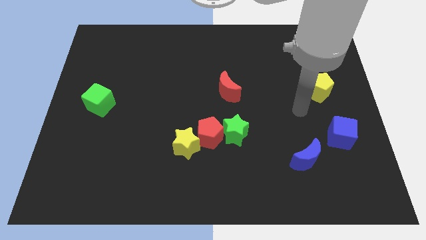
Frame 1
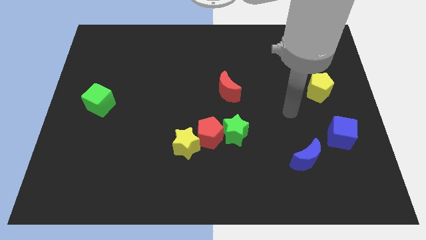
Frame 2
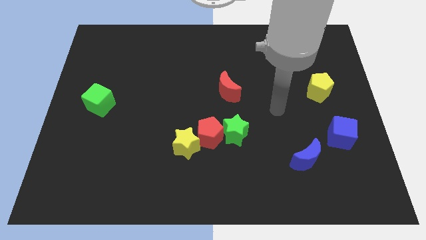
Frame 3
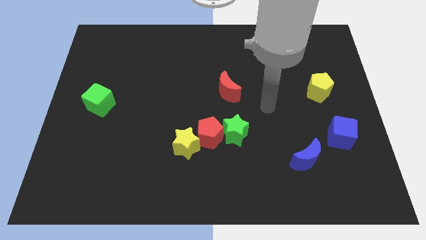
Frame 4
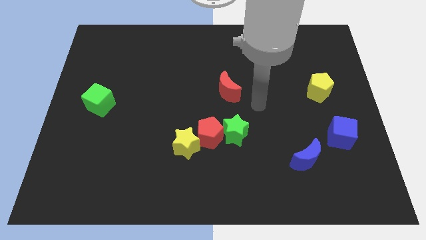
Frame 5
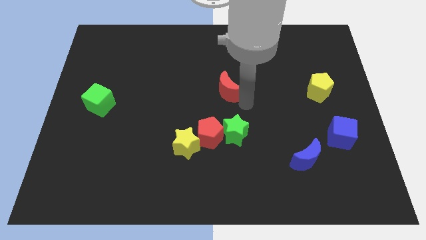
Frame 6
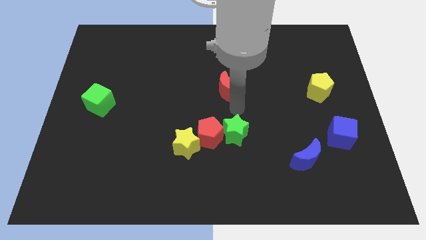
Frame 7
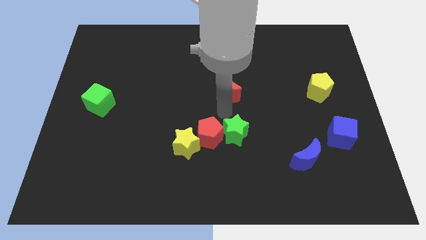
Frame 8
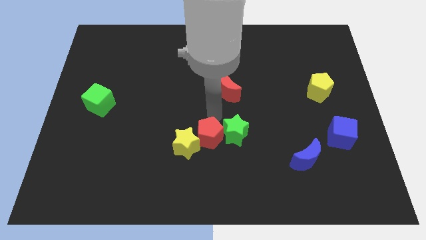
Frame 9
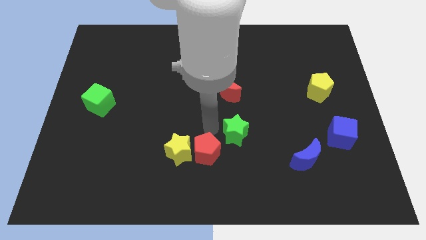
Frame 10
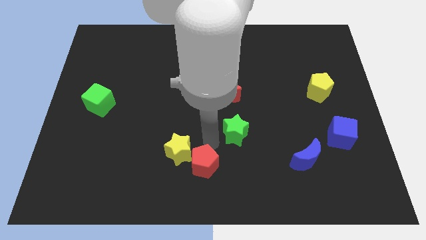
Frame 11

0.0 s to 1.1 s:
move the green star away from the red pentagon

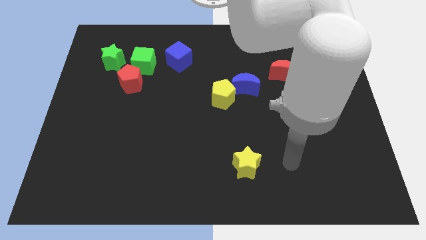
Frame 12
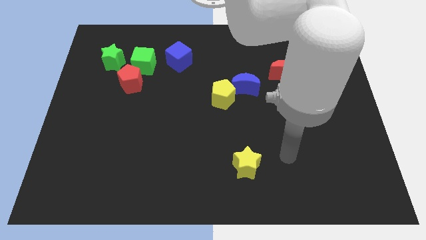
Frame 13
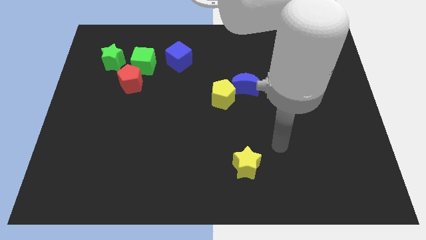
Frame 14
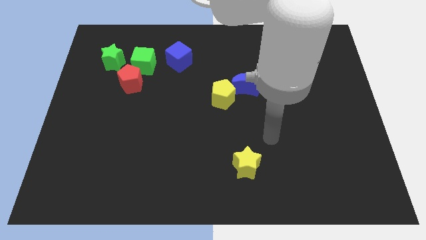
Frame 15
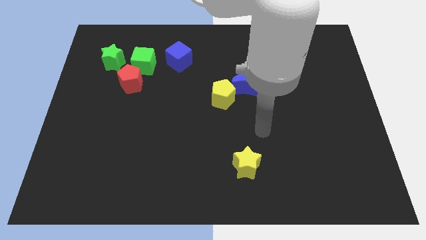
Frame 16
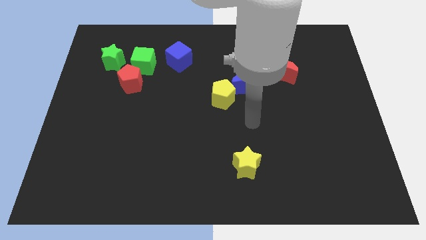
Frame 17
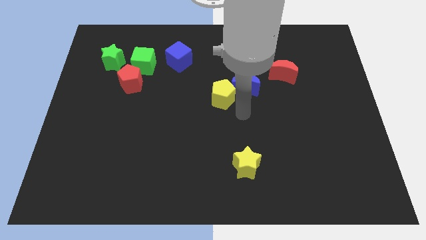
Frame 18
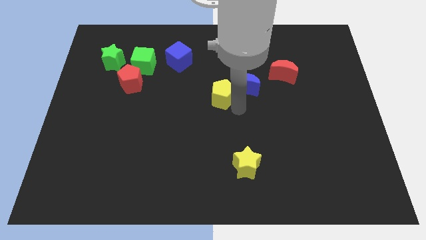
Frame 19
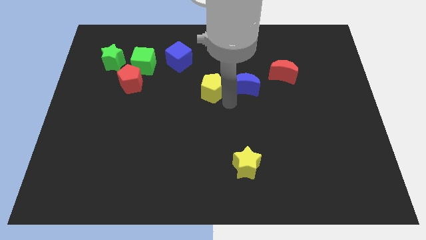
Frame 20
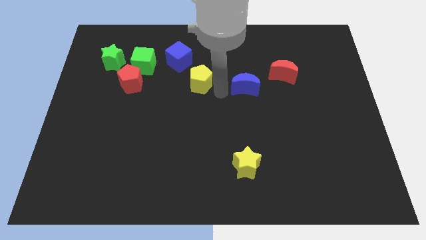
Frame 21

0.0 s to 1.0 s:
separate the blue moon from the yellow pentagon

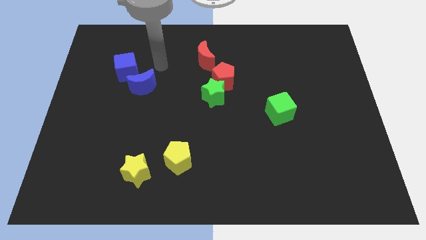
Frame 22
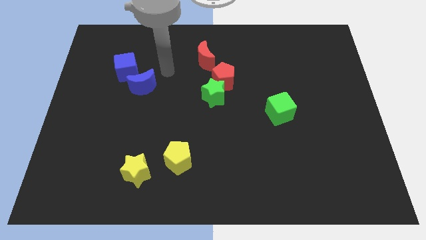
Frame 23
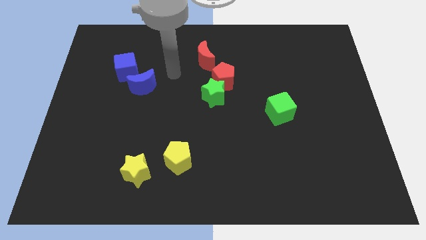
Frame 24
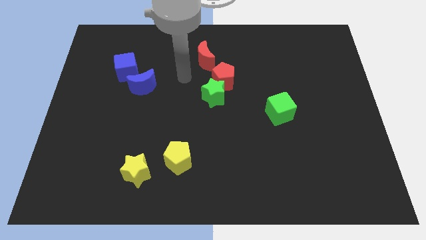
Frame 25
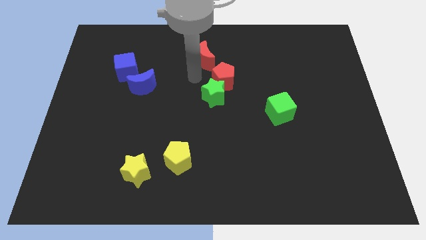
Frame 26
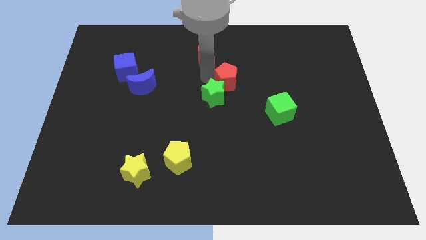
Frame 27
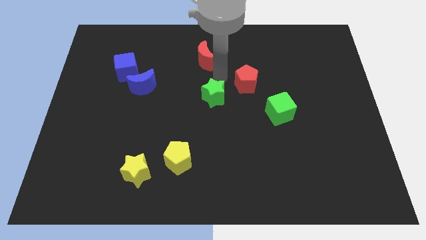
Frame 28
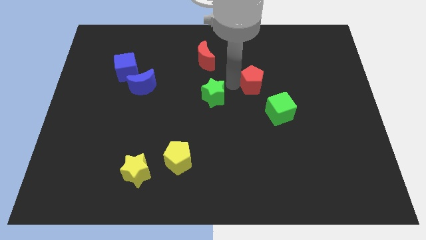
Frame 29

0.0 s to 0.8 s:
pull the green star apart from the red pentagon

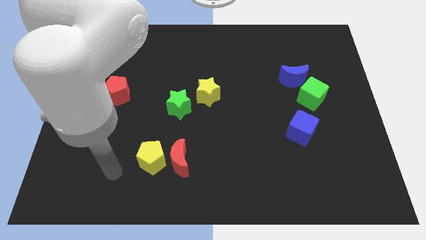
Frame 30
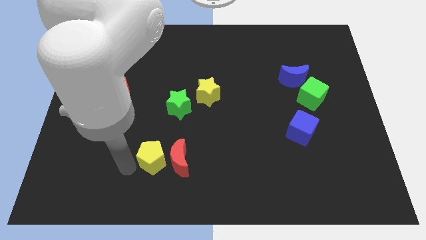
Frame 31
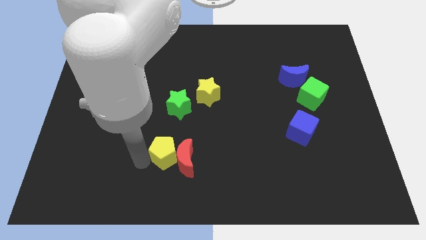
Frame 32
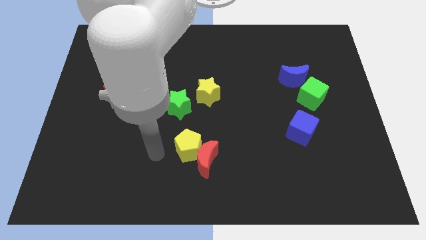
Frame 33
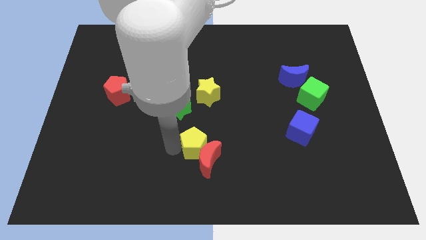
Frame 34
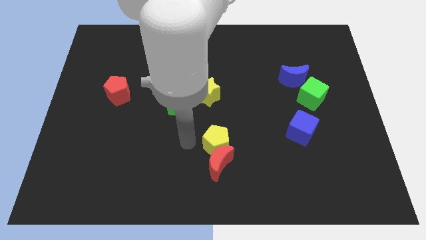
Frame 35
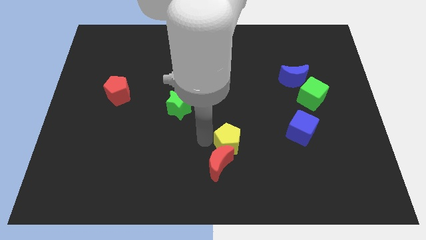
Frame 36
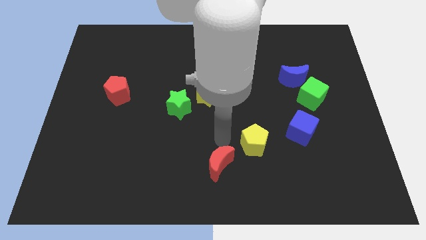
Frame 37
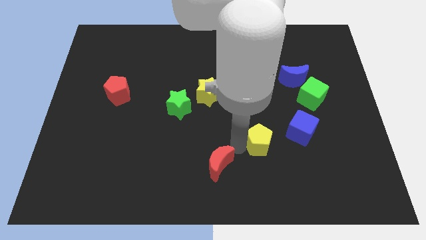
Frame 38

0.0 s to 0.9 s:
move the red moon away from the yellow pentagon

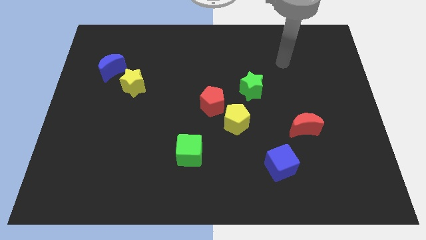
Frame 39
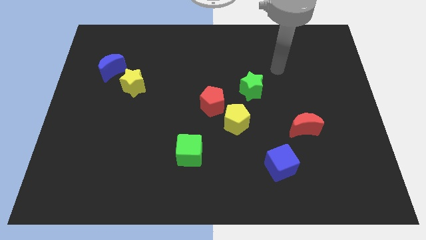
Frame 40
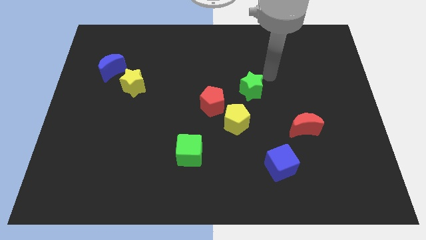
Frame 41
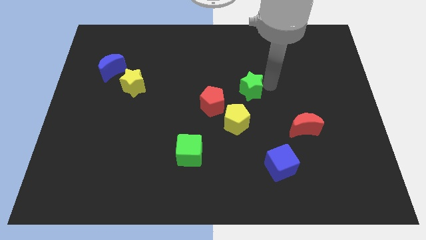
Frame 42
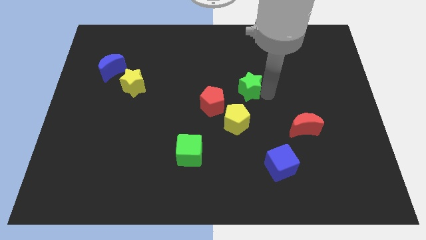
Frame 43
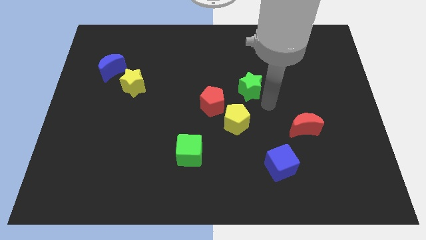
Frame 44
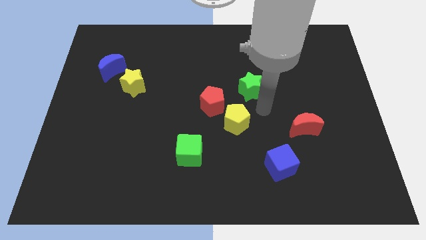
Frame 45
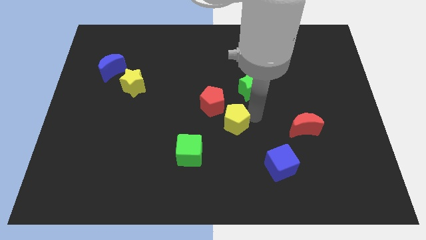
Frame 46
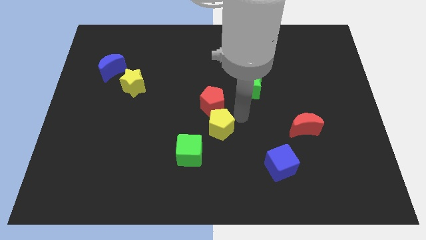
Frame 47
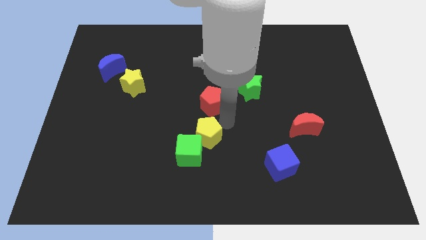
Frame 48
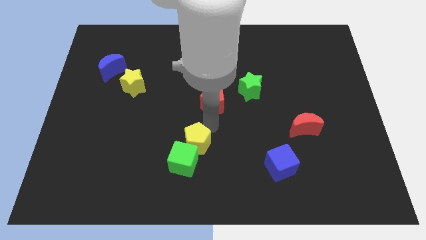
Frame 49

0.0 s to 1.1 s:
separate the red pentagon from the yellow pentagon

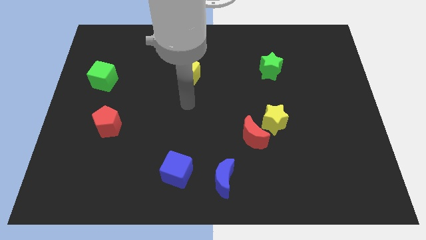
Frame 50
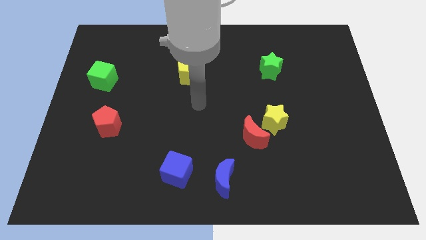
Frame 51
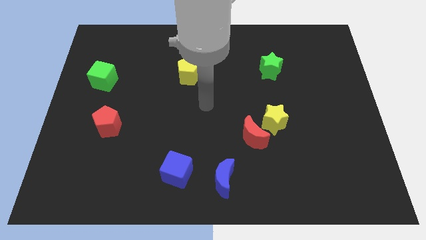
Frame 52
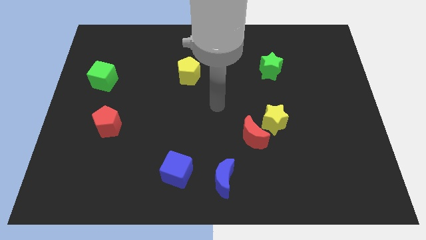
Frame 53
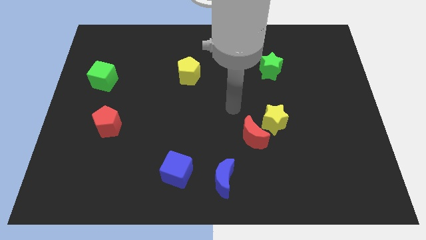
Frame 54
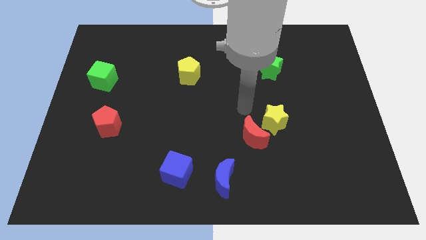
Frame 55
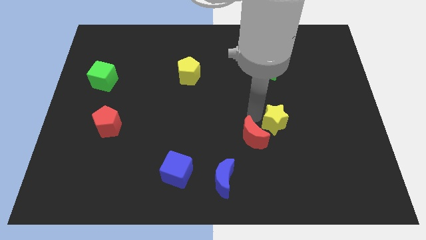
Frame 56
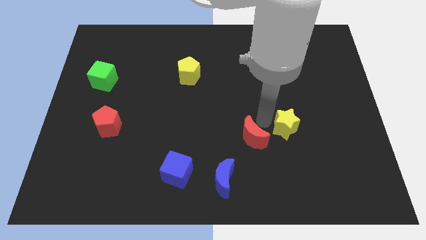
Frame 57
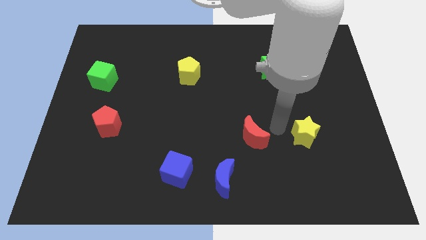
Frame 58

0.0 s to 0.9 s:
separate the red moon from the yellow star

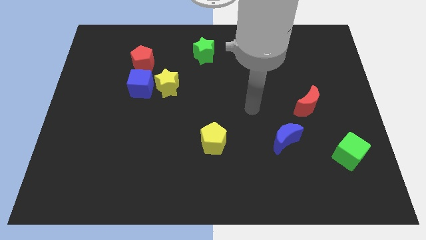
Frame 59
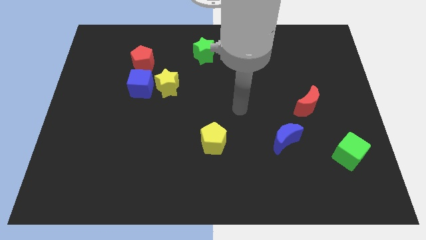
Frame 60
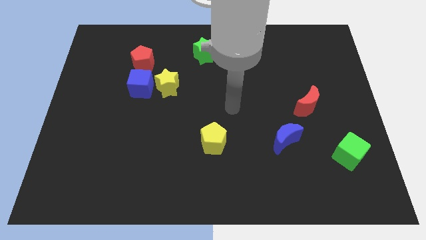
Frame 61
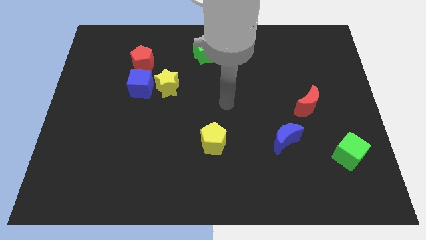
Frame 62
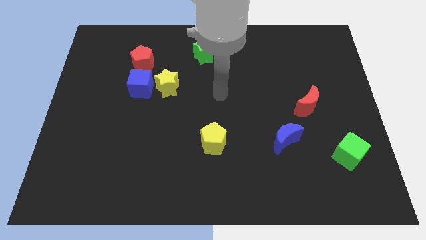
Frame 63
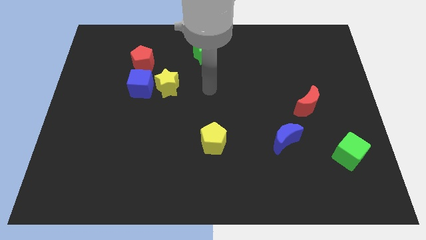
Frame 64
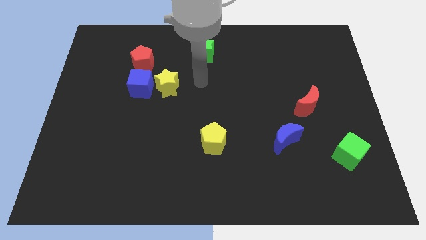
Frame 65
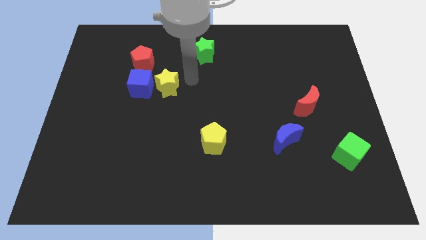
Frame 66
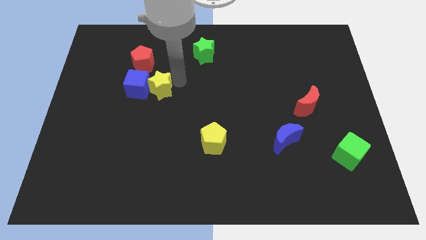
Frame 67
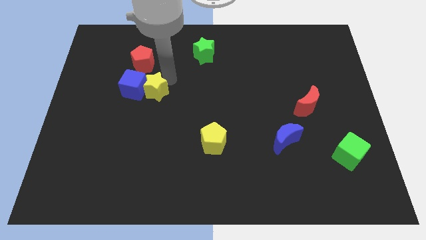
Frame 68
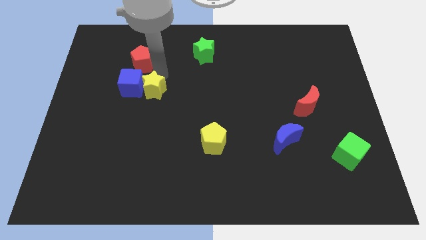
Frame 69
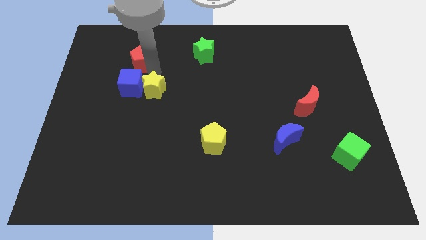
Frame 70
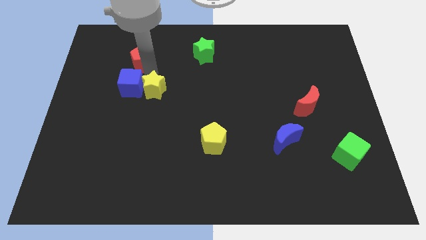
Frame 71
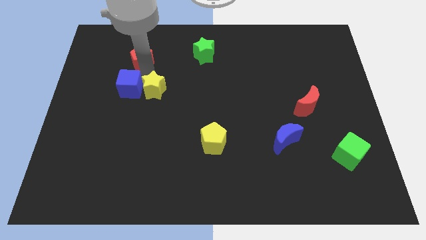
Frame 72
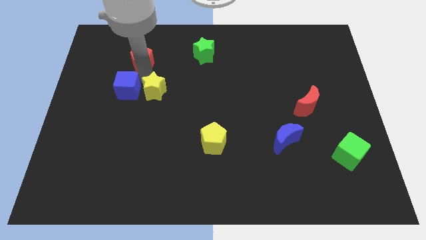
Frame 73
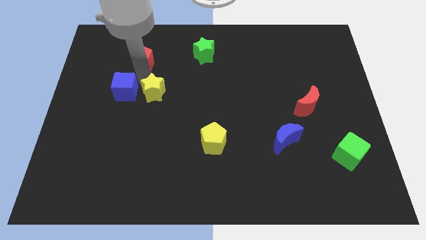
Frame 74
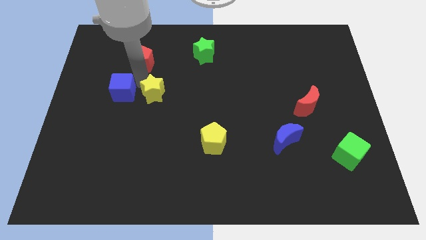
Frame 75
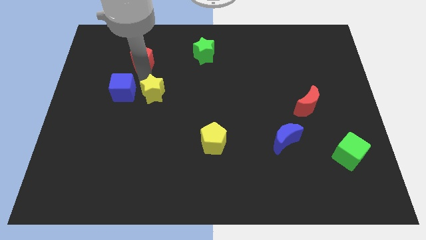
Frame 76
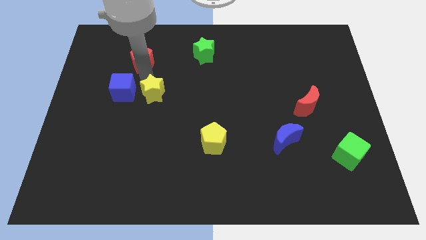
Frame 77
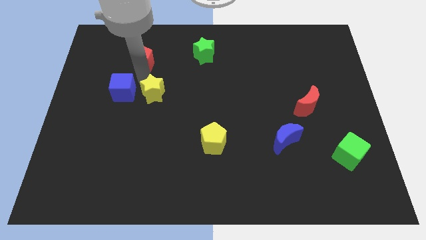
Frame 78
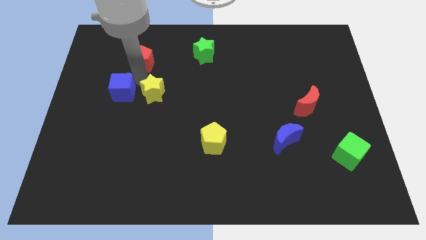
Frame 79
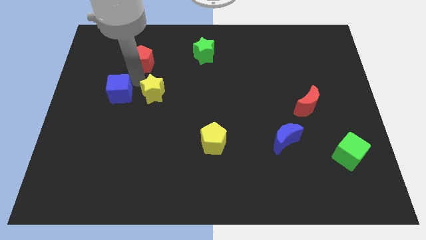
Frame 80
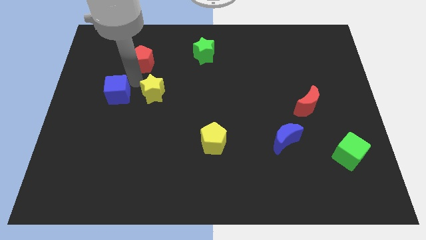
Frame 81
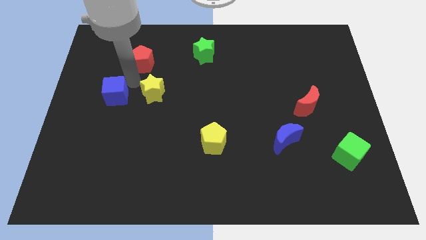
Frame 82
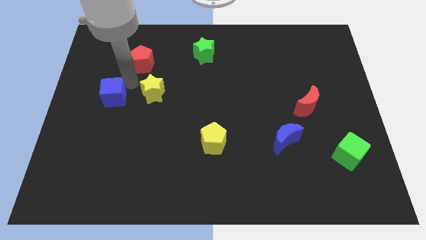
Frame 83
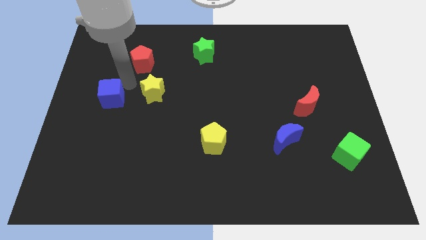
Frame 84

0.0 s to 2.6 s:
pull the blue cube apart from the yellow star and red pentagon

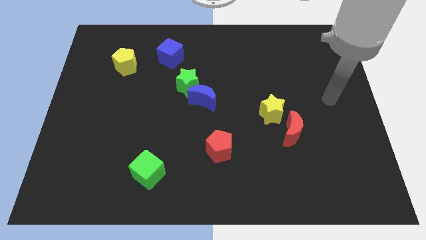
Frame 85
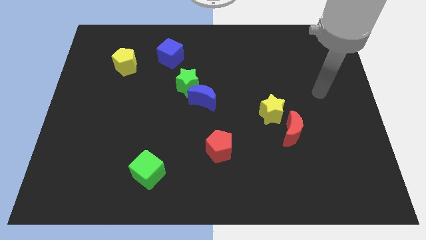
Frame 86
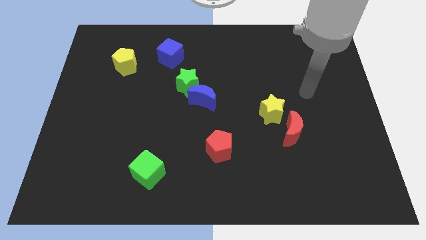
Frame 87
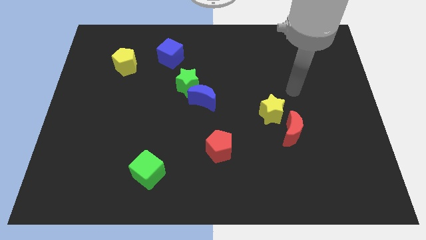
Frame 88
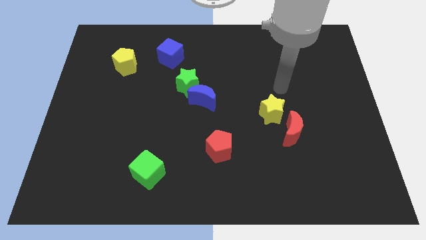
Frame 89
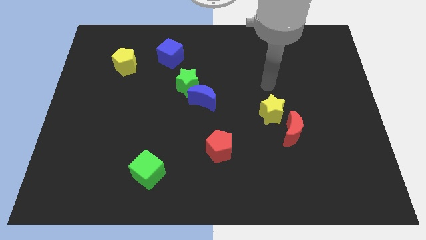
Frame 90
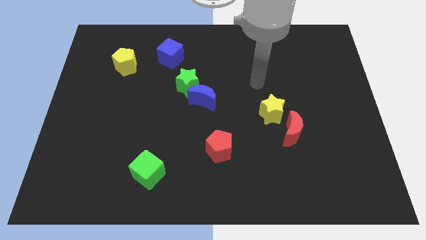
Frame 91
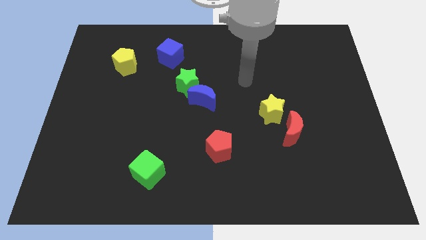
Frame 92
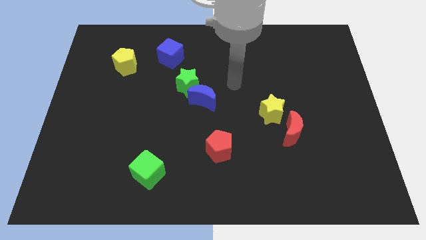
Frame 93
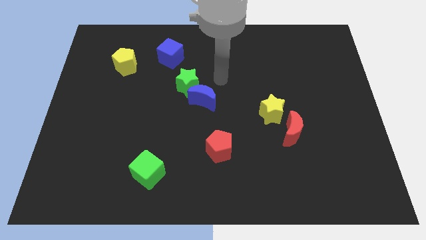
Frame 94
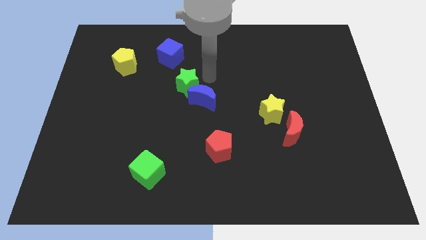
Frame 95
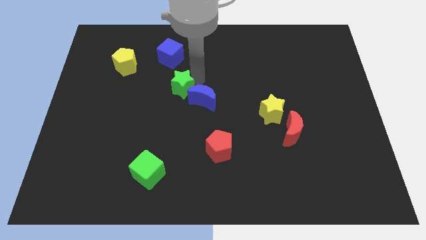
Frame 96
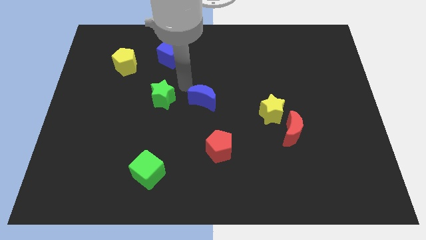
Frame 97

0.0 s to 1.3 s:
move the blue moon away from the green star
